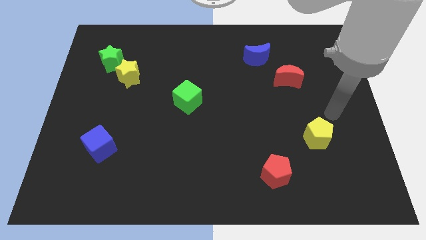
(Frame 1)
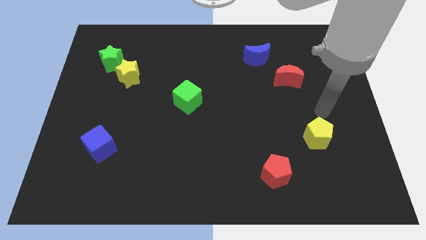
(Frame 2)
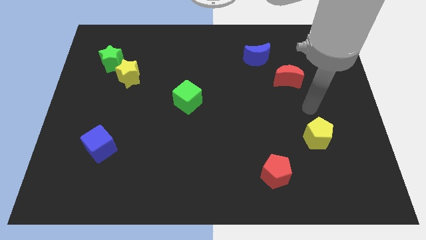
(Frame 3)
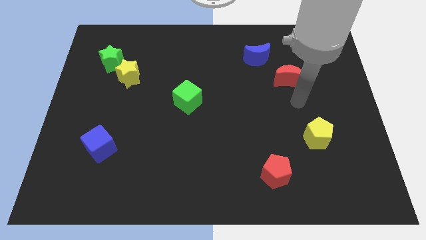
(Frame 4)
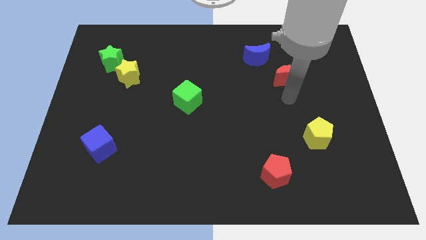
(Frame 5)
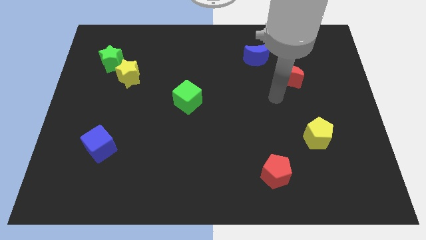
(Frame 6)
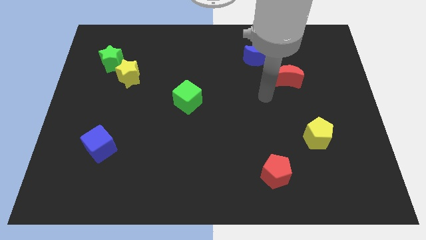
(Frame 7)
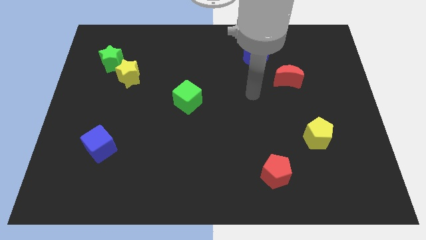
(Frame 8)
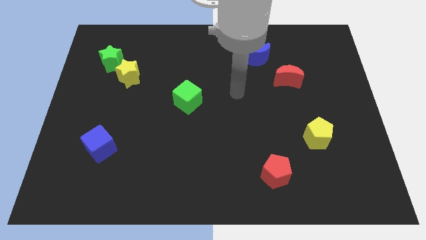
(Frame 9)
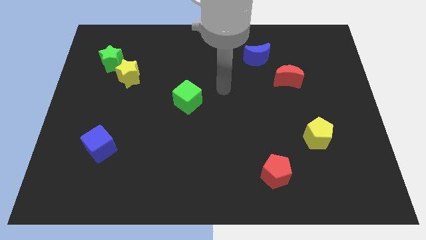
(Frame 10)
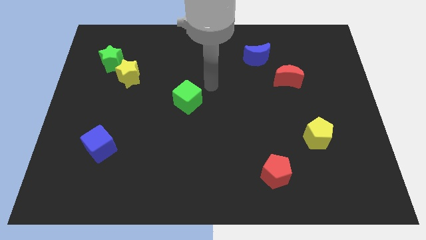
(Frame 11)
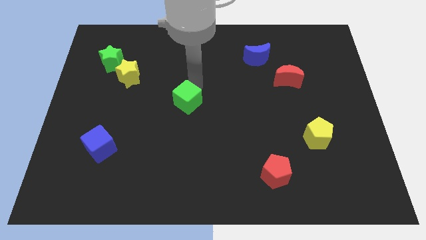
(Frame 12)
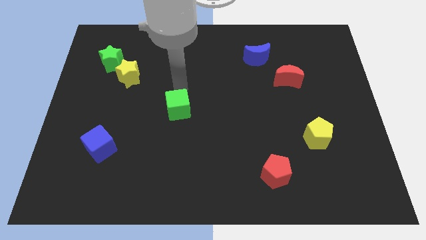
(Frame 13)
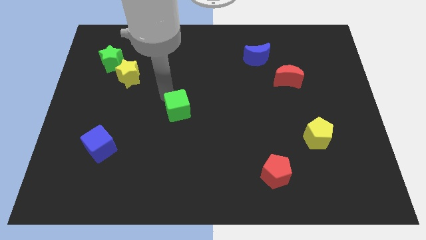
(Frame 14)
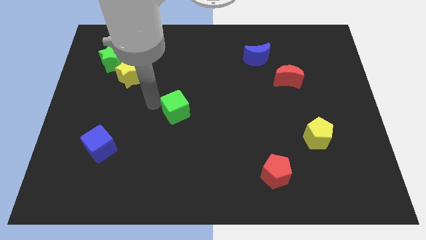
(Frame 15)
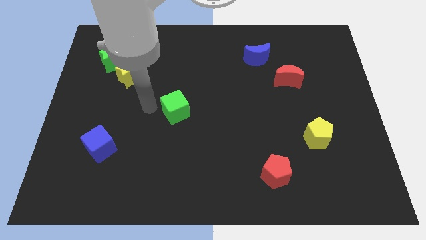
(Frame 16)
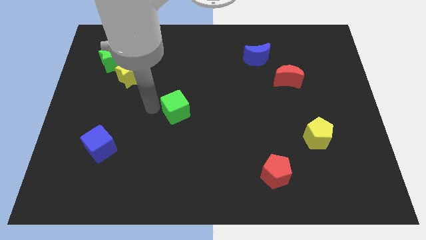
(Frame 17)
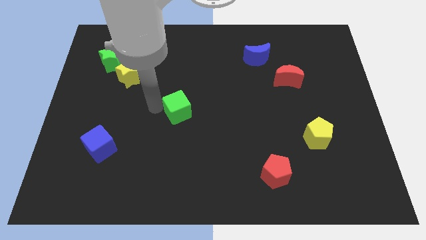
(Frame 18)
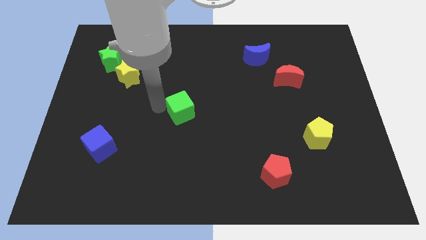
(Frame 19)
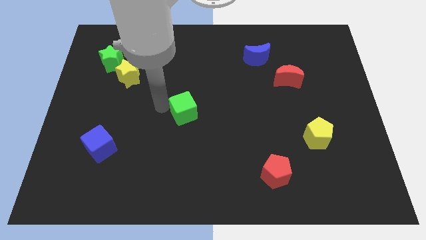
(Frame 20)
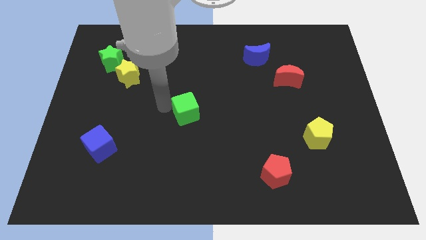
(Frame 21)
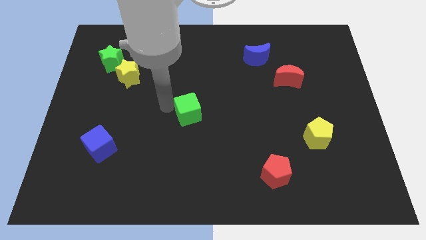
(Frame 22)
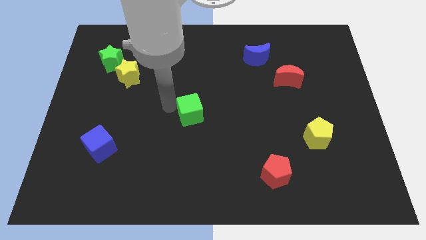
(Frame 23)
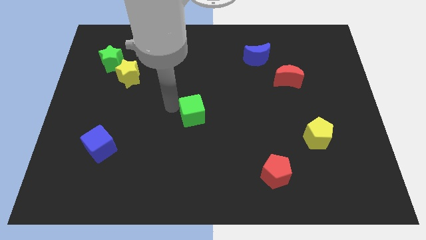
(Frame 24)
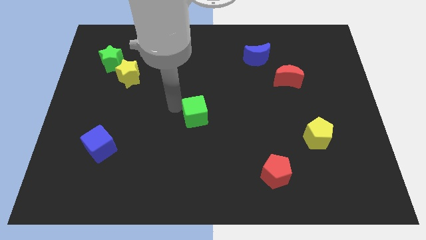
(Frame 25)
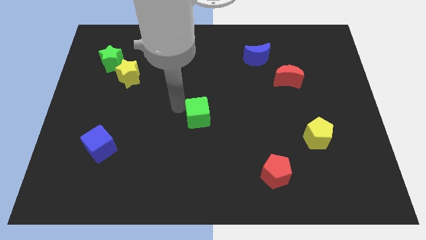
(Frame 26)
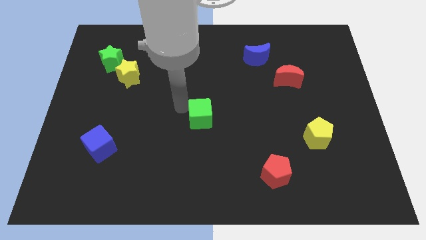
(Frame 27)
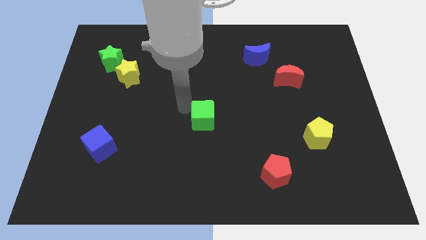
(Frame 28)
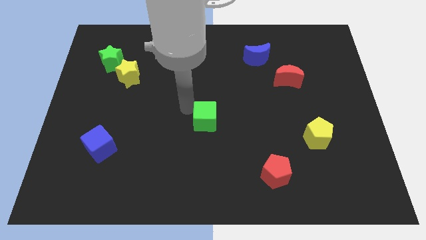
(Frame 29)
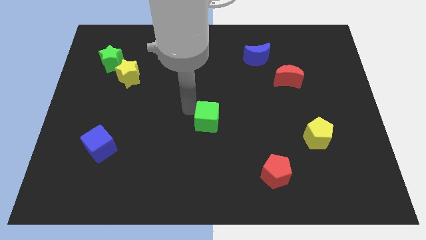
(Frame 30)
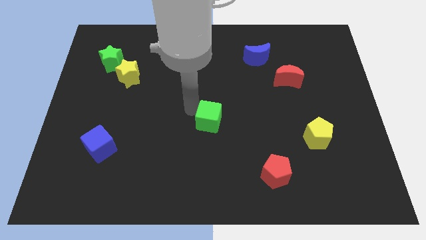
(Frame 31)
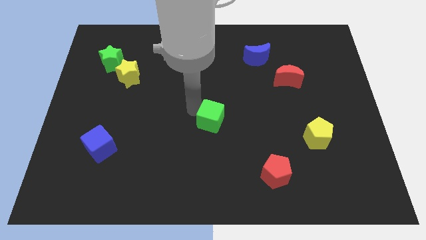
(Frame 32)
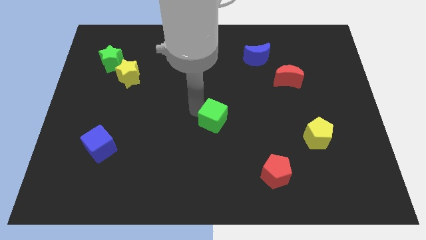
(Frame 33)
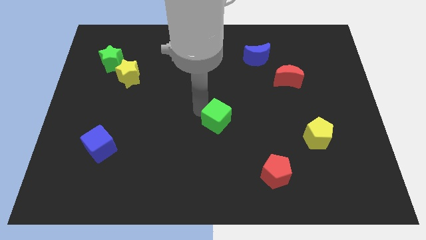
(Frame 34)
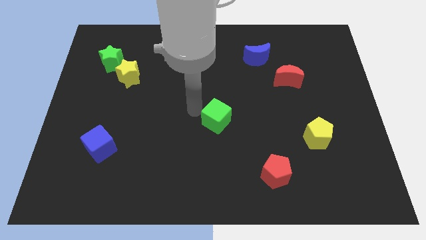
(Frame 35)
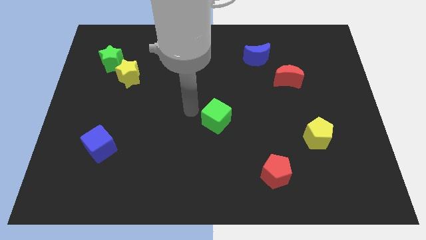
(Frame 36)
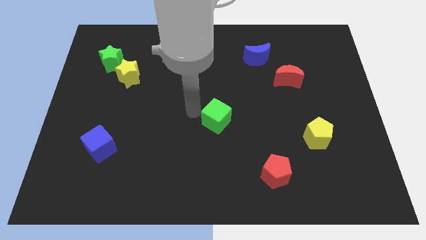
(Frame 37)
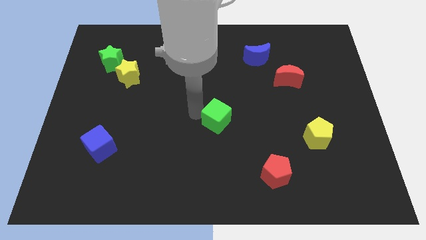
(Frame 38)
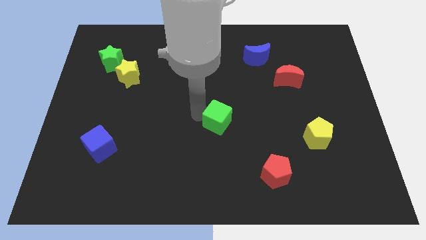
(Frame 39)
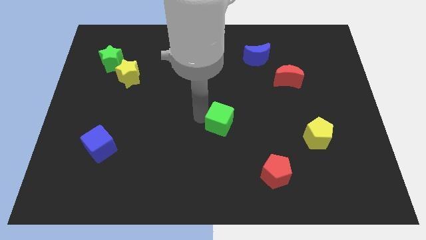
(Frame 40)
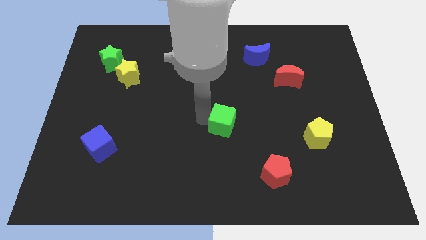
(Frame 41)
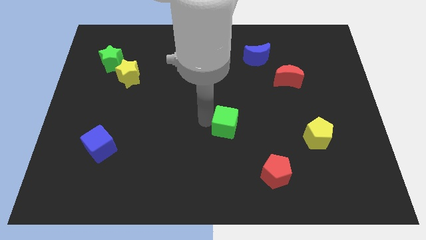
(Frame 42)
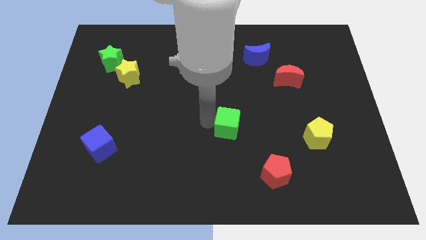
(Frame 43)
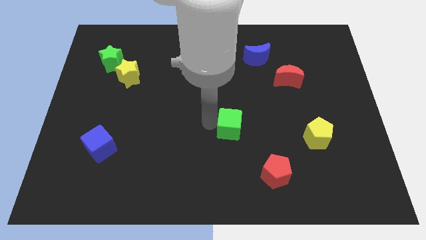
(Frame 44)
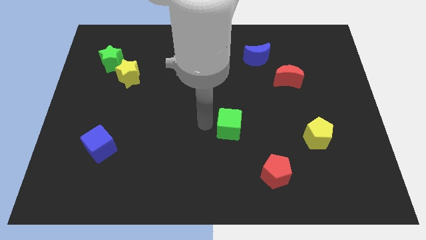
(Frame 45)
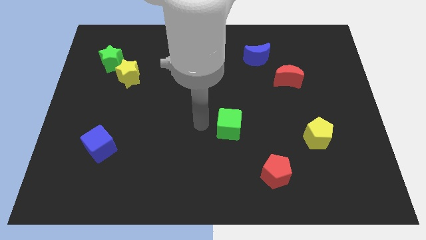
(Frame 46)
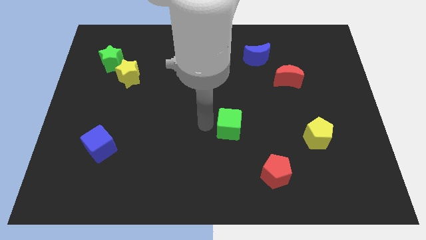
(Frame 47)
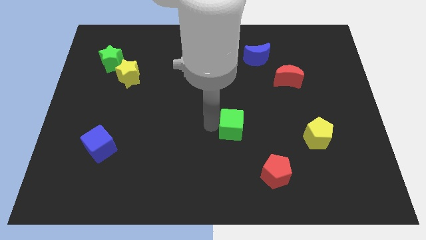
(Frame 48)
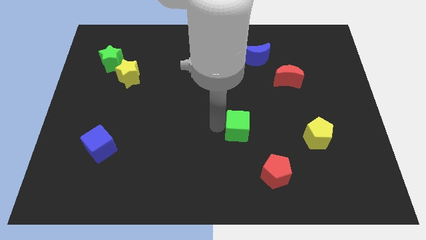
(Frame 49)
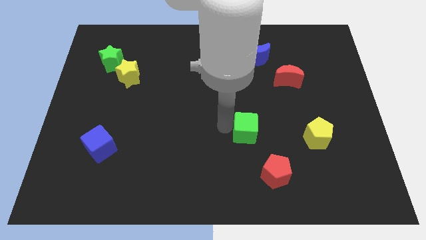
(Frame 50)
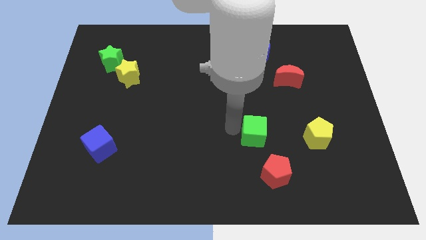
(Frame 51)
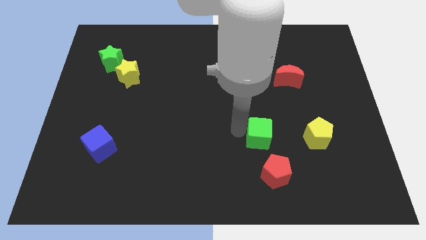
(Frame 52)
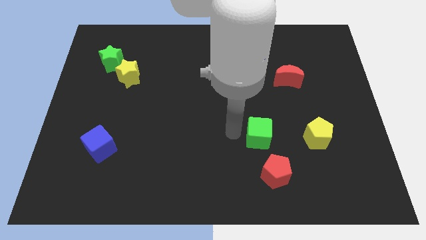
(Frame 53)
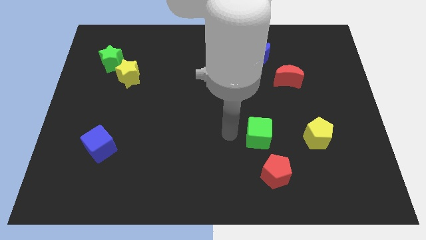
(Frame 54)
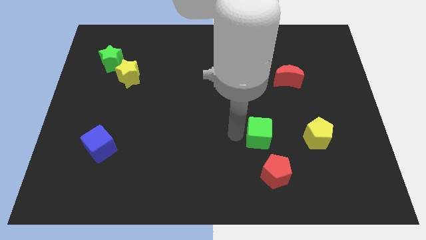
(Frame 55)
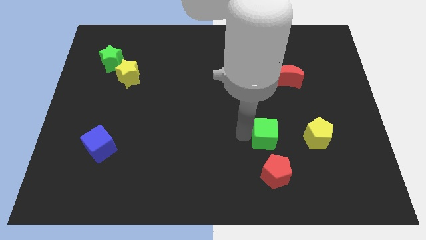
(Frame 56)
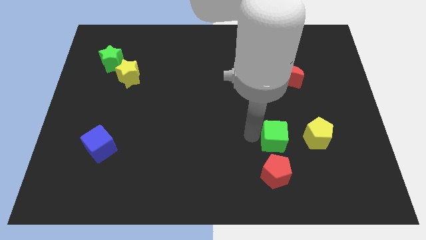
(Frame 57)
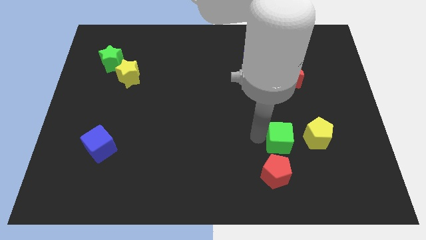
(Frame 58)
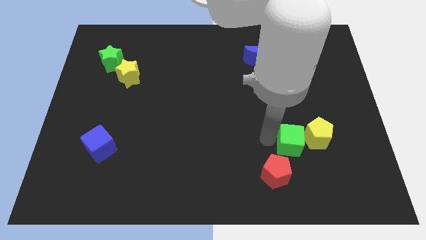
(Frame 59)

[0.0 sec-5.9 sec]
slide the green cube close to the yellow pentagon

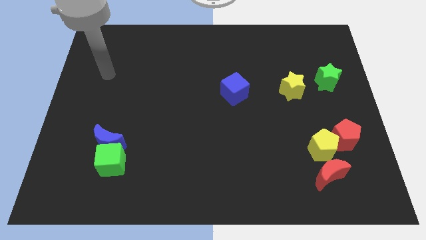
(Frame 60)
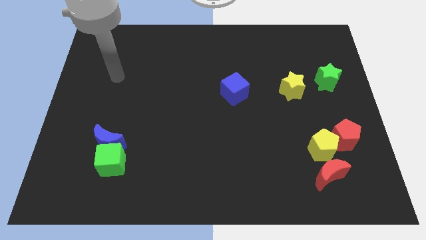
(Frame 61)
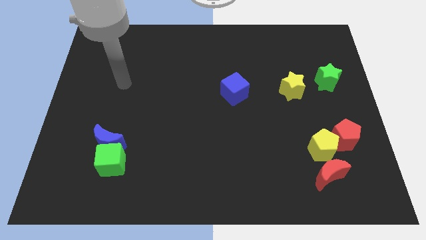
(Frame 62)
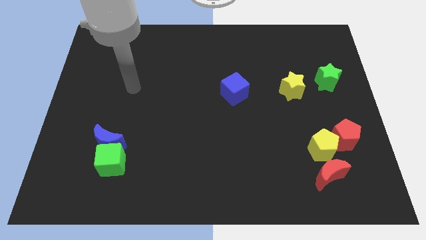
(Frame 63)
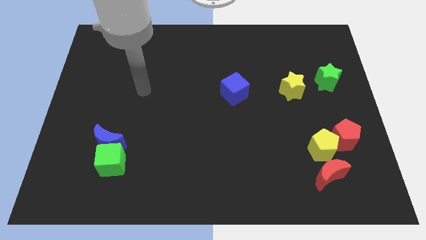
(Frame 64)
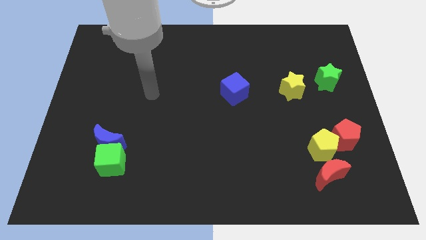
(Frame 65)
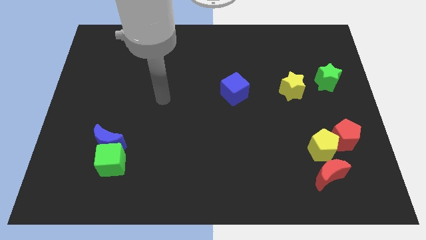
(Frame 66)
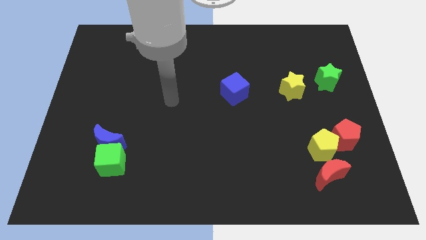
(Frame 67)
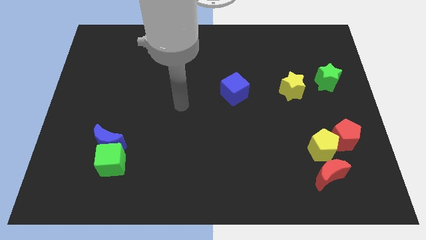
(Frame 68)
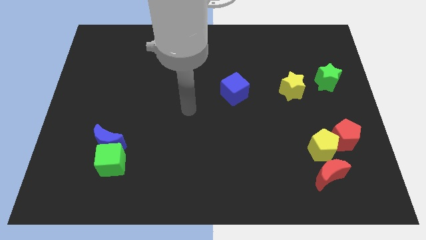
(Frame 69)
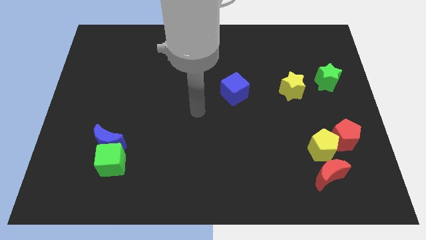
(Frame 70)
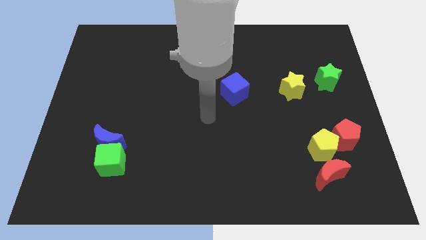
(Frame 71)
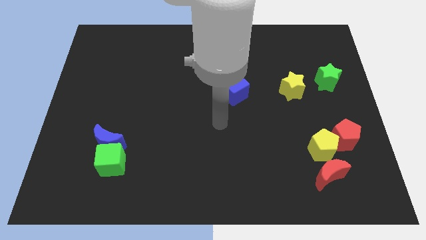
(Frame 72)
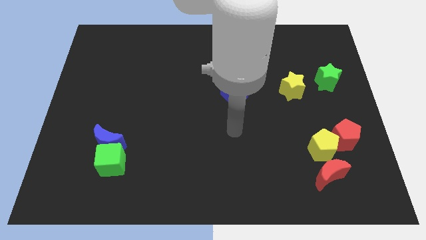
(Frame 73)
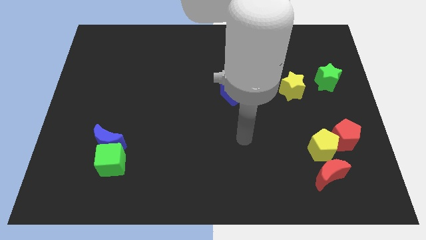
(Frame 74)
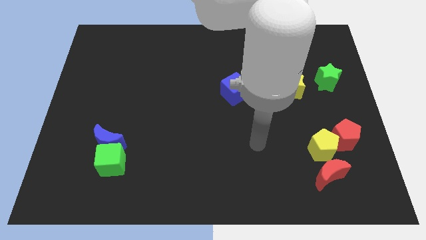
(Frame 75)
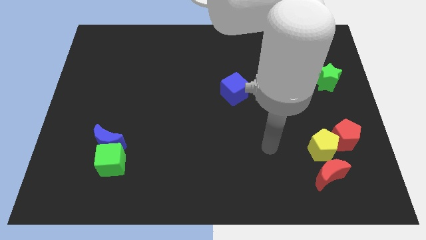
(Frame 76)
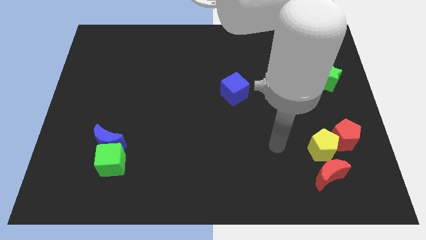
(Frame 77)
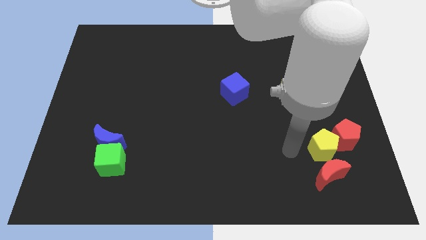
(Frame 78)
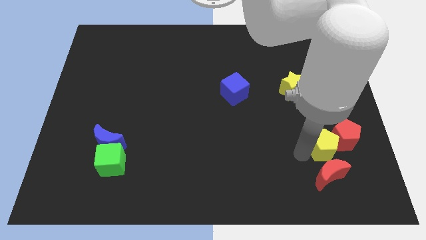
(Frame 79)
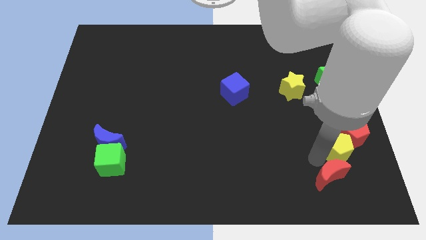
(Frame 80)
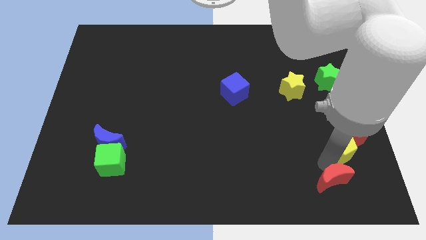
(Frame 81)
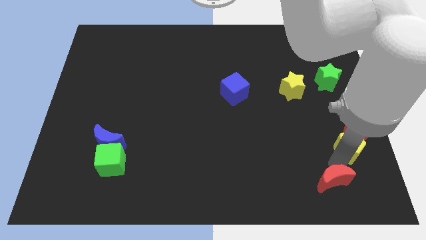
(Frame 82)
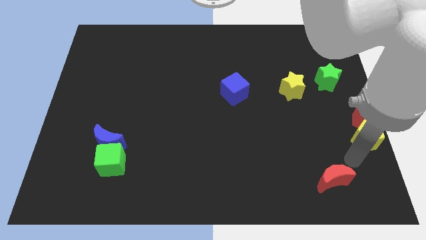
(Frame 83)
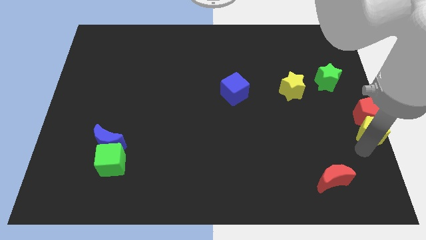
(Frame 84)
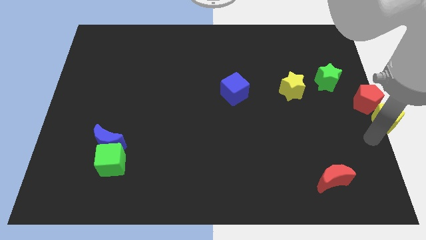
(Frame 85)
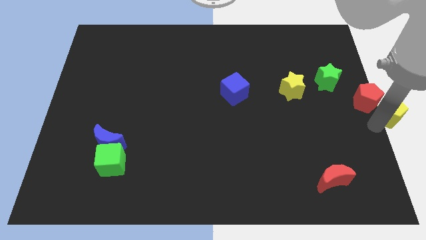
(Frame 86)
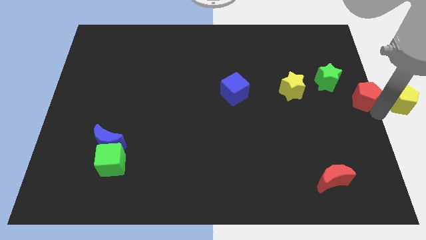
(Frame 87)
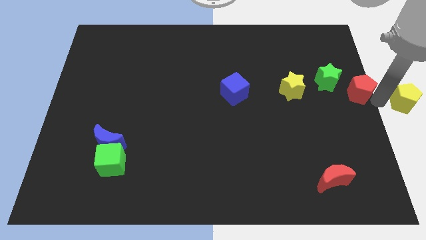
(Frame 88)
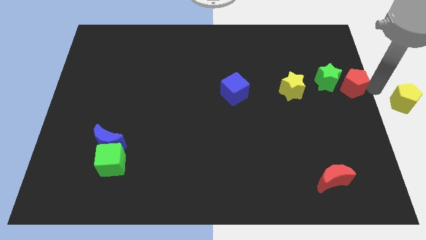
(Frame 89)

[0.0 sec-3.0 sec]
move the red pentagon towards the green star
